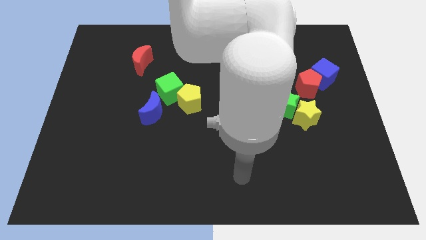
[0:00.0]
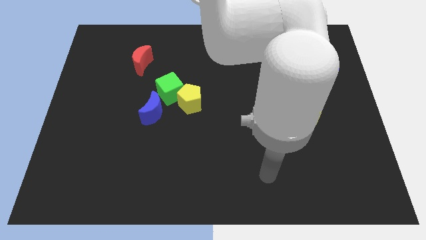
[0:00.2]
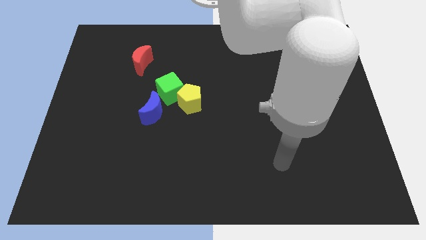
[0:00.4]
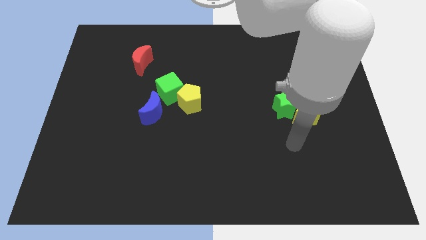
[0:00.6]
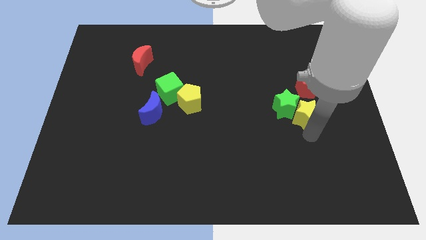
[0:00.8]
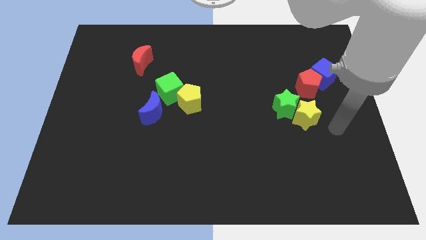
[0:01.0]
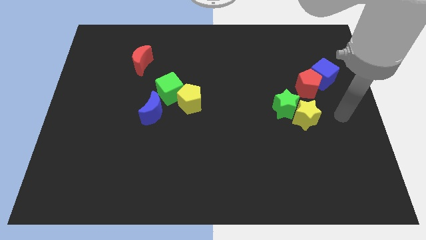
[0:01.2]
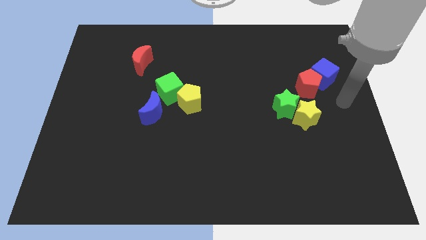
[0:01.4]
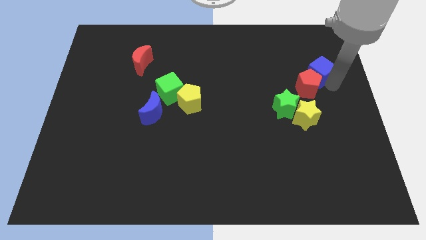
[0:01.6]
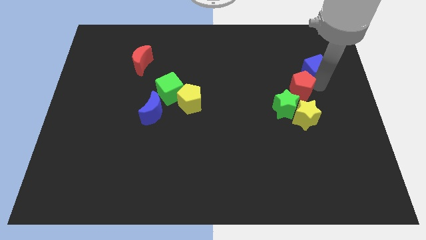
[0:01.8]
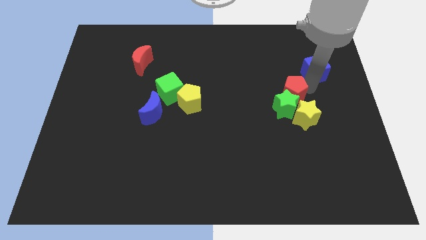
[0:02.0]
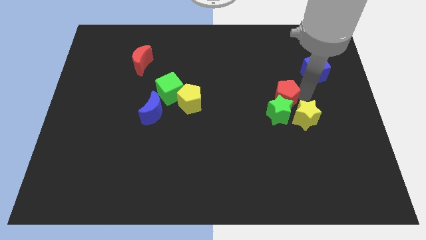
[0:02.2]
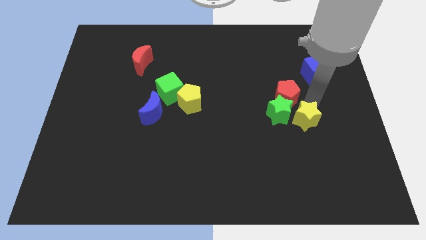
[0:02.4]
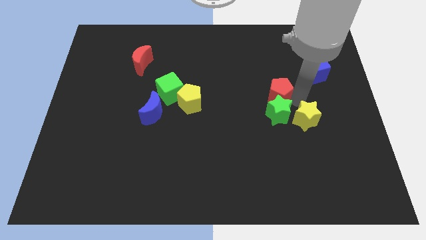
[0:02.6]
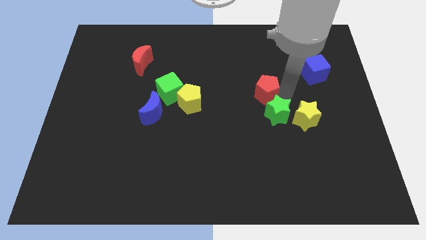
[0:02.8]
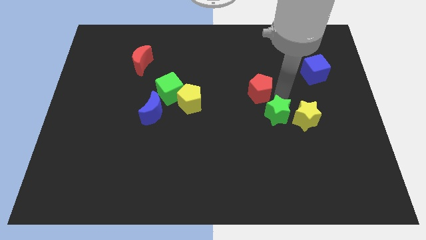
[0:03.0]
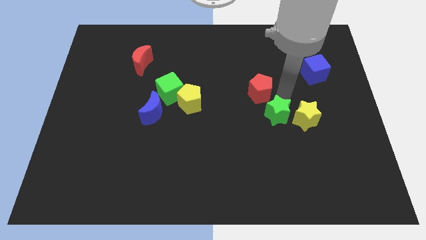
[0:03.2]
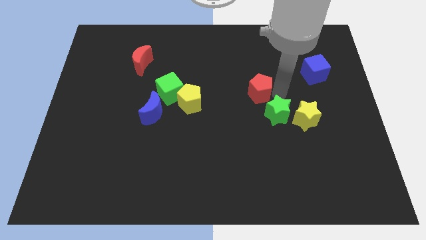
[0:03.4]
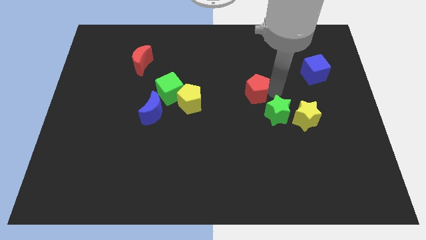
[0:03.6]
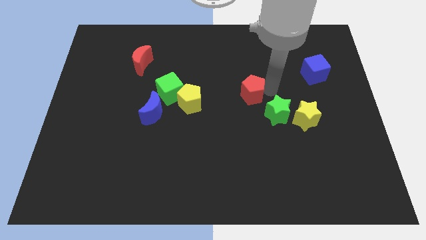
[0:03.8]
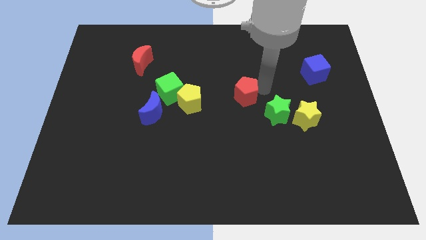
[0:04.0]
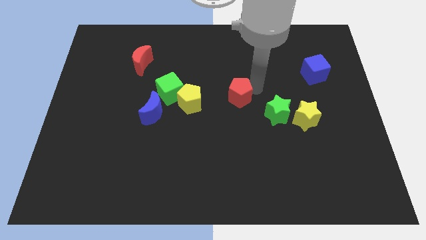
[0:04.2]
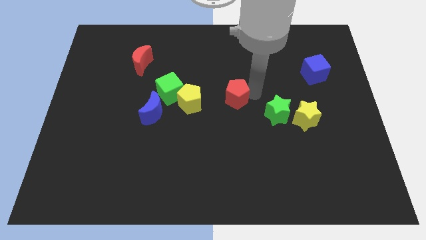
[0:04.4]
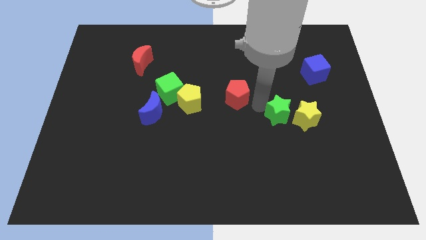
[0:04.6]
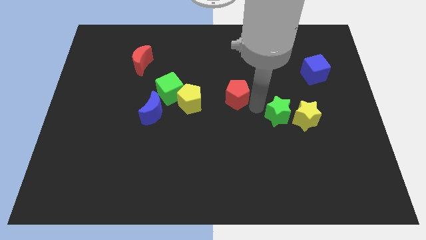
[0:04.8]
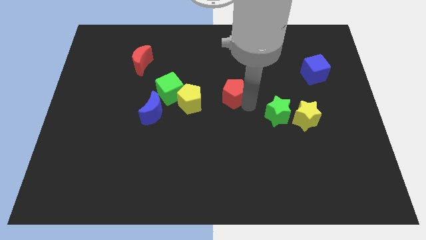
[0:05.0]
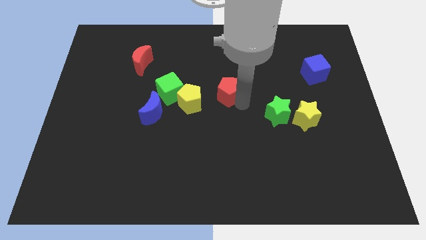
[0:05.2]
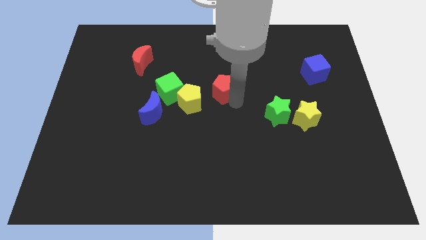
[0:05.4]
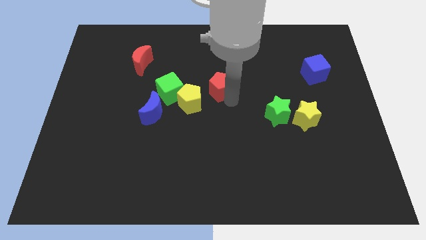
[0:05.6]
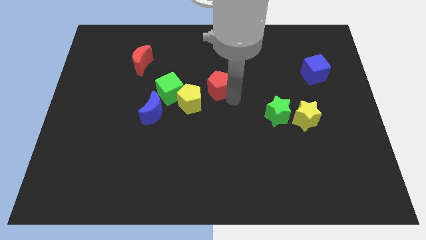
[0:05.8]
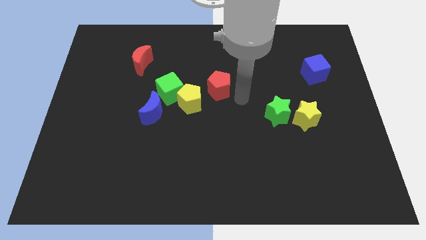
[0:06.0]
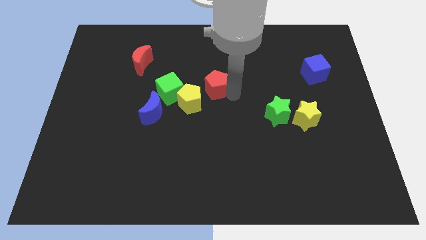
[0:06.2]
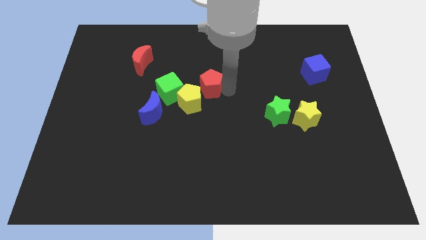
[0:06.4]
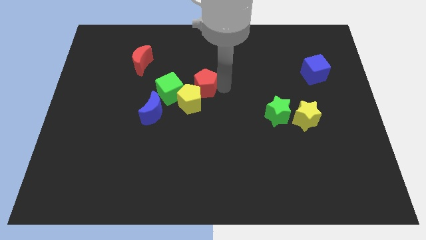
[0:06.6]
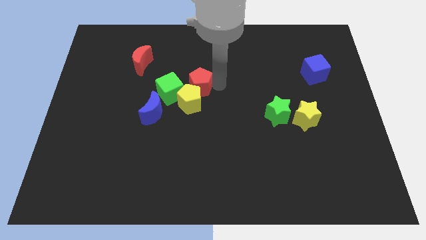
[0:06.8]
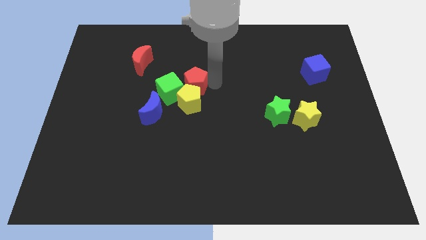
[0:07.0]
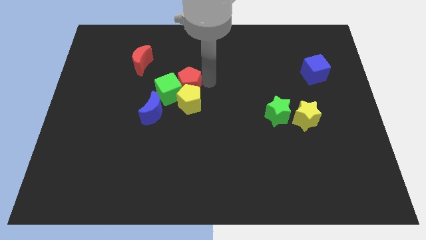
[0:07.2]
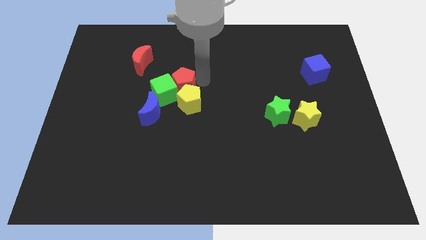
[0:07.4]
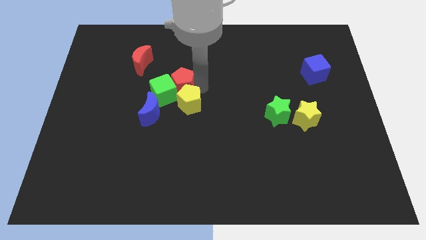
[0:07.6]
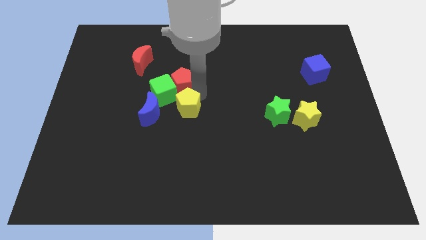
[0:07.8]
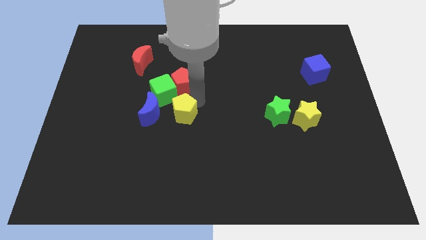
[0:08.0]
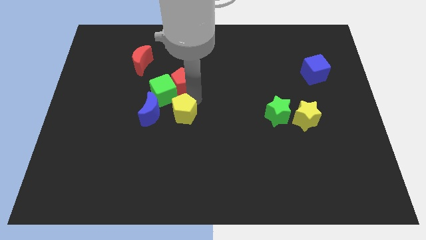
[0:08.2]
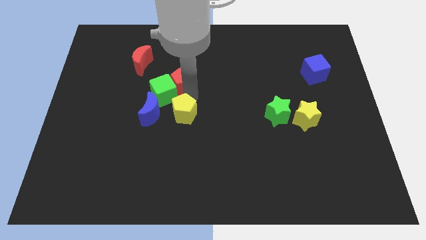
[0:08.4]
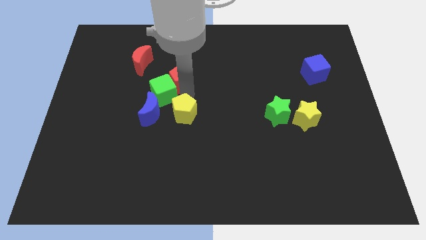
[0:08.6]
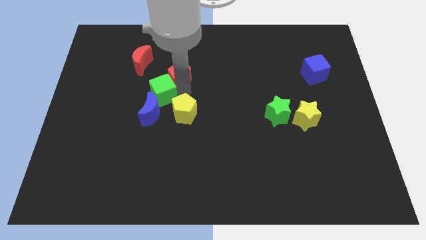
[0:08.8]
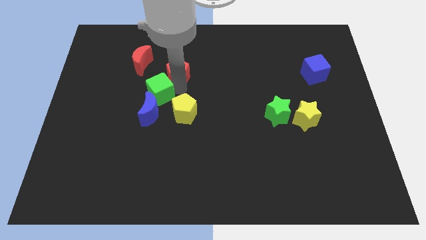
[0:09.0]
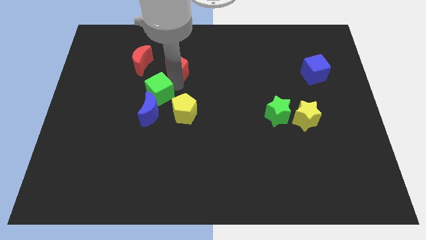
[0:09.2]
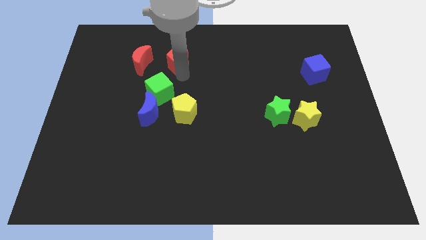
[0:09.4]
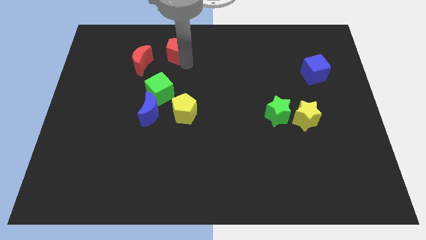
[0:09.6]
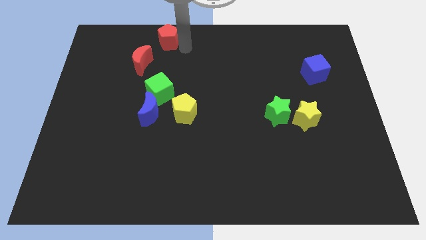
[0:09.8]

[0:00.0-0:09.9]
put the red pentagon to the towards your base

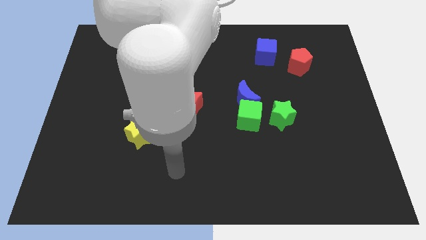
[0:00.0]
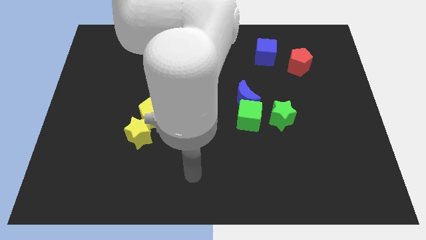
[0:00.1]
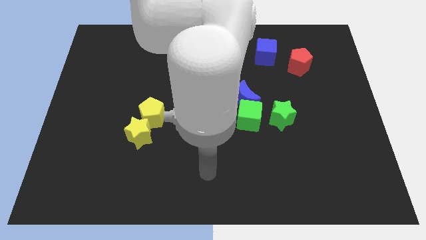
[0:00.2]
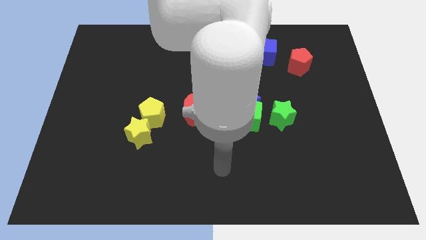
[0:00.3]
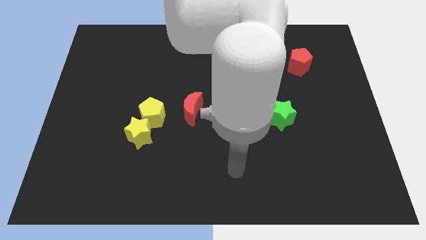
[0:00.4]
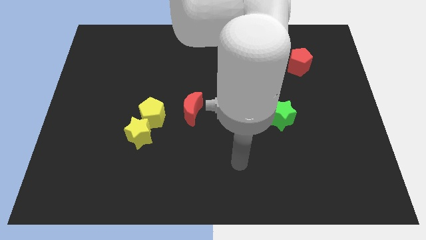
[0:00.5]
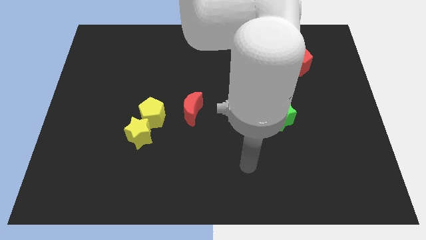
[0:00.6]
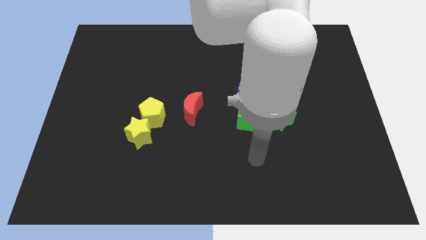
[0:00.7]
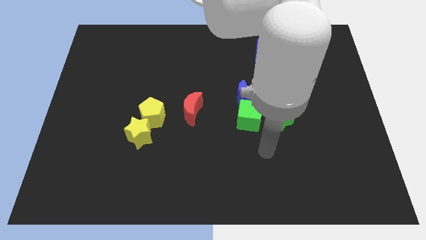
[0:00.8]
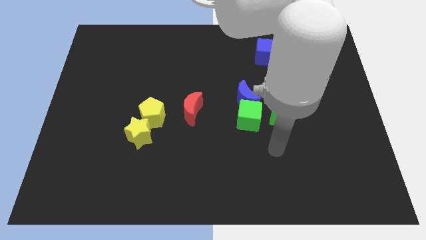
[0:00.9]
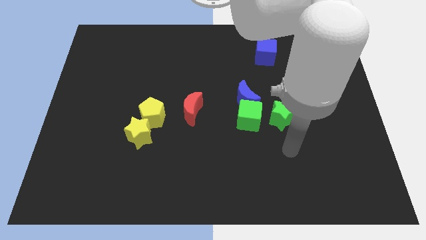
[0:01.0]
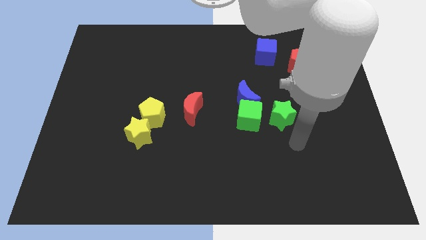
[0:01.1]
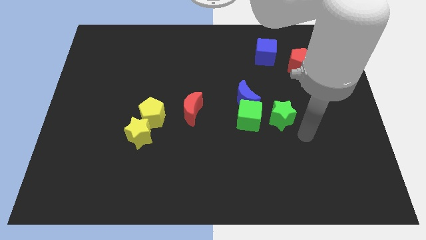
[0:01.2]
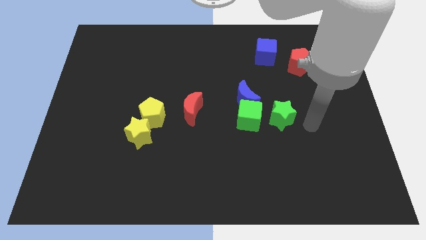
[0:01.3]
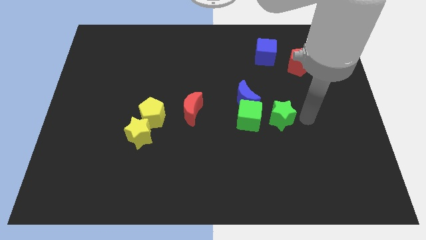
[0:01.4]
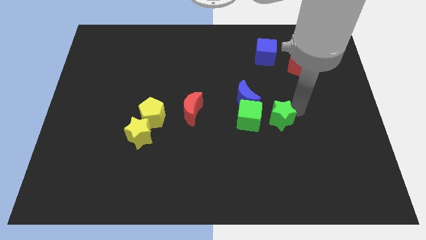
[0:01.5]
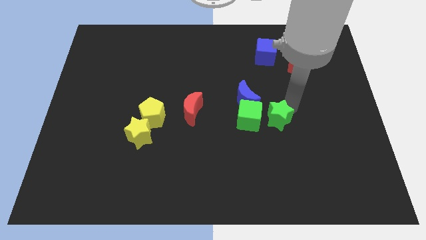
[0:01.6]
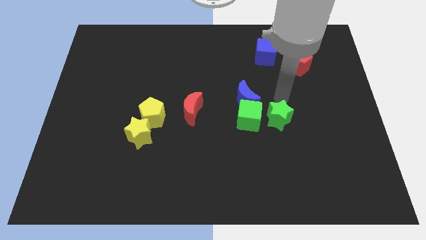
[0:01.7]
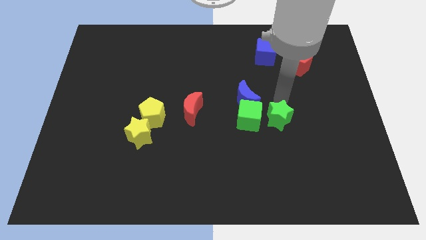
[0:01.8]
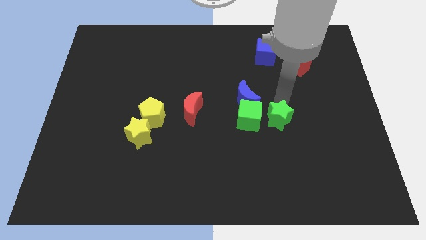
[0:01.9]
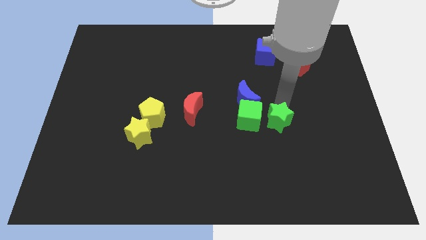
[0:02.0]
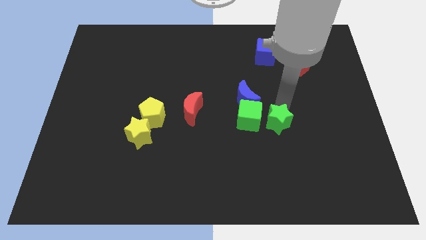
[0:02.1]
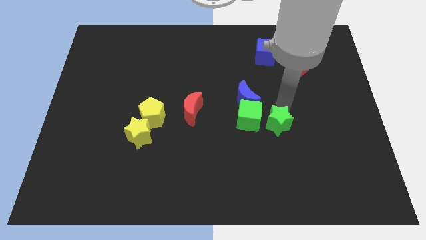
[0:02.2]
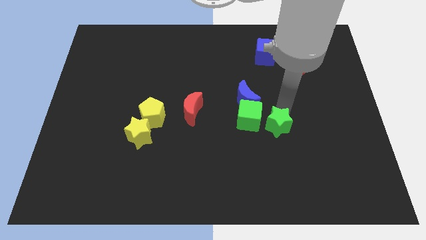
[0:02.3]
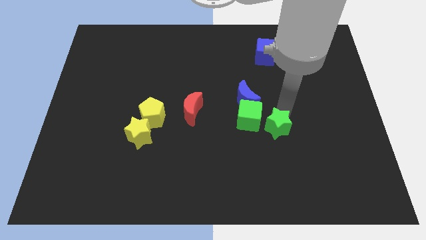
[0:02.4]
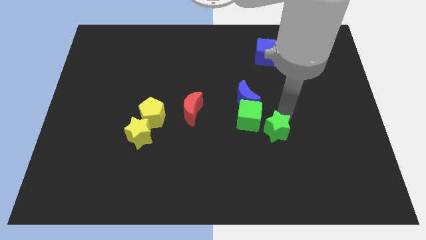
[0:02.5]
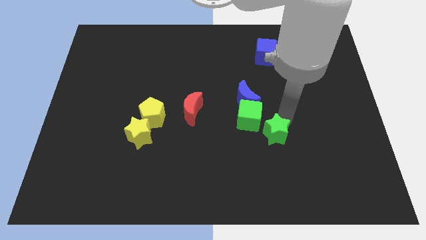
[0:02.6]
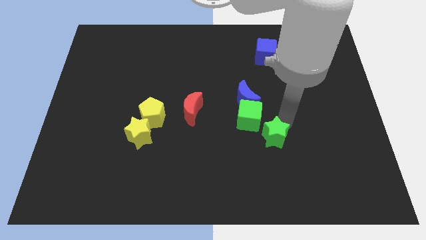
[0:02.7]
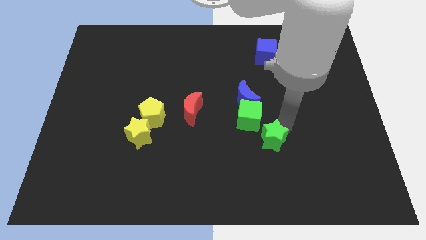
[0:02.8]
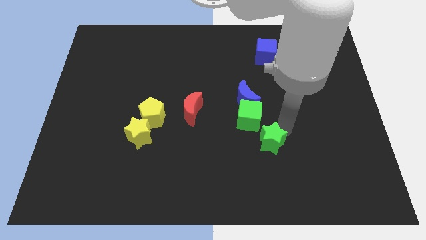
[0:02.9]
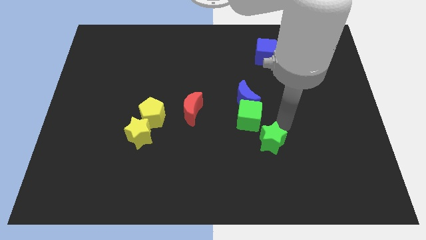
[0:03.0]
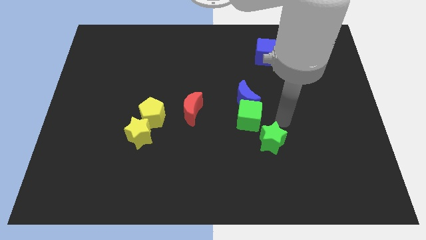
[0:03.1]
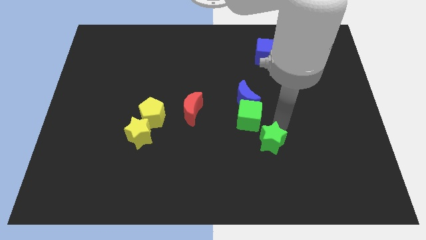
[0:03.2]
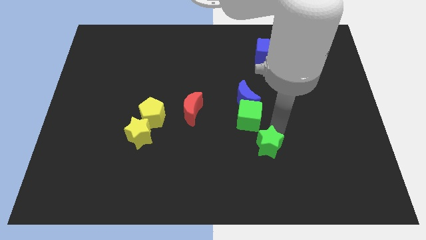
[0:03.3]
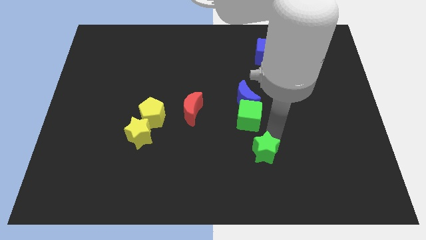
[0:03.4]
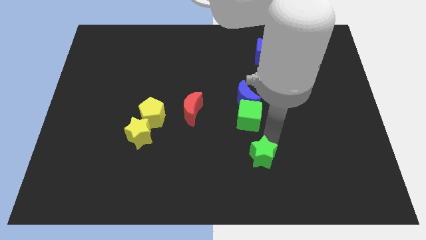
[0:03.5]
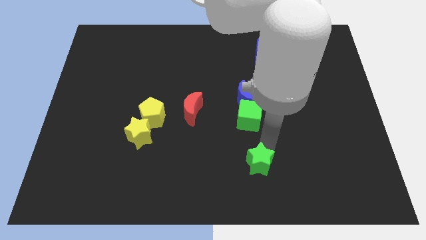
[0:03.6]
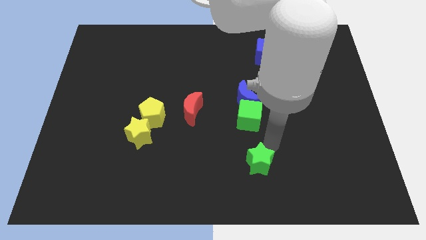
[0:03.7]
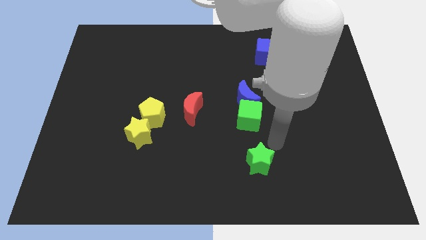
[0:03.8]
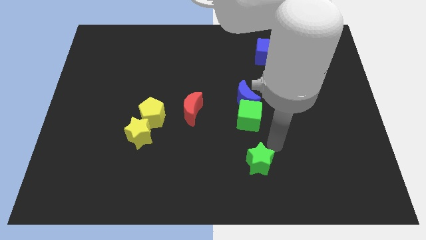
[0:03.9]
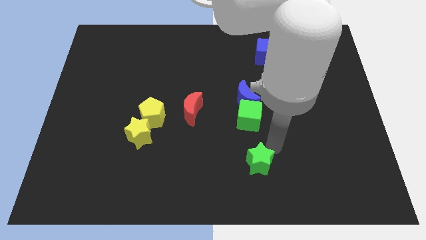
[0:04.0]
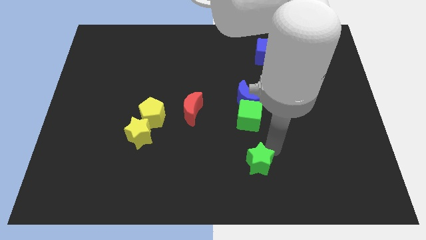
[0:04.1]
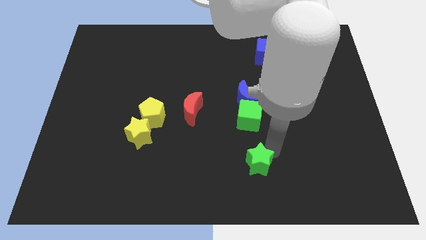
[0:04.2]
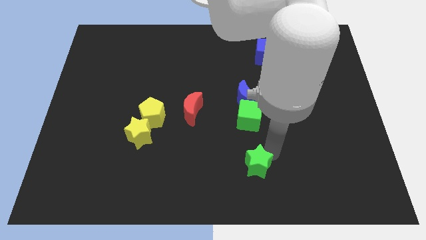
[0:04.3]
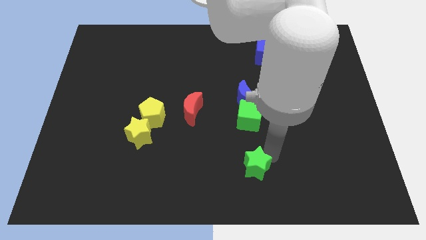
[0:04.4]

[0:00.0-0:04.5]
put the green star to the bottom
